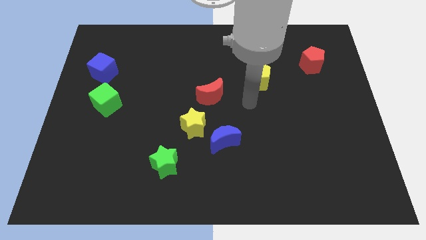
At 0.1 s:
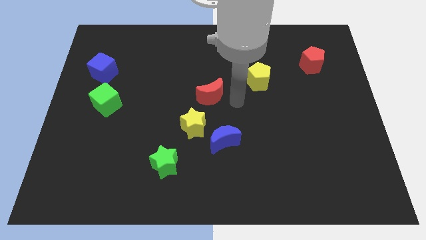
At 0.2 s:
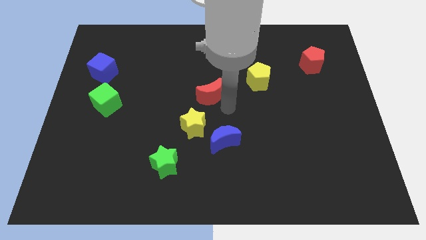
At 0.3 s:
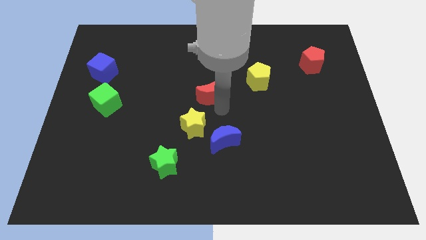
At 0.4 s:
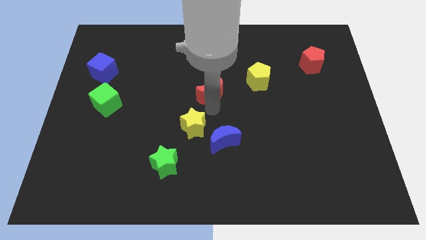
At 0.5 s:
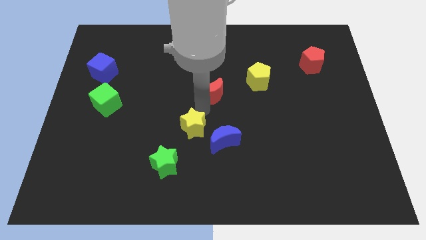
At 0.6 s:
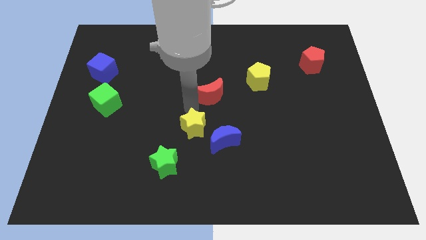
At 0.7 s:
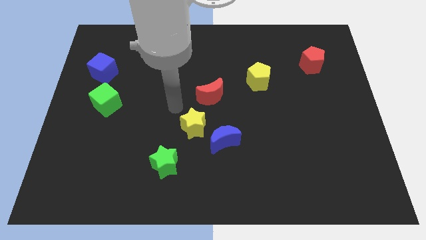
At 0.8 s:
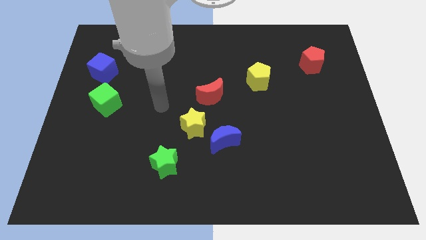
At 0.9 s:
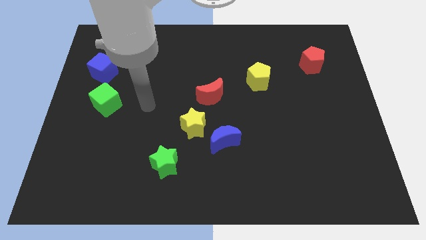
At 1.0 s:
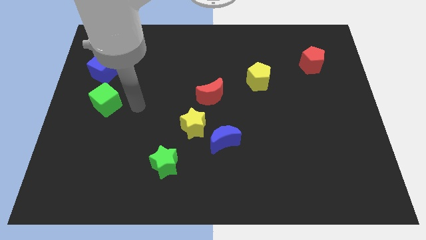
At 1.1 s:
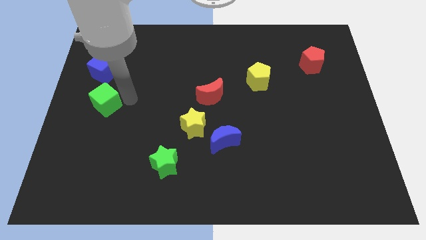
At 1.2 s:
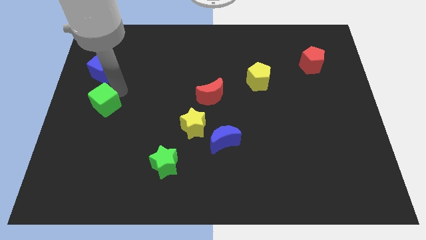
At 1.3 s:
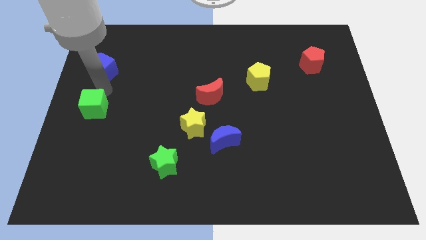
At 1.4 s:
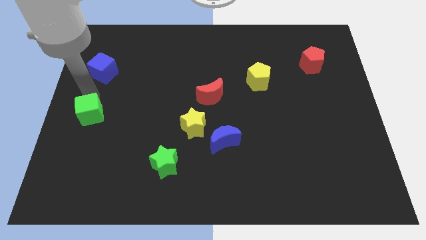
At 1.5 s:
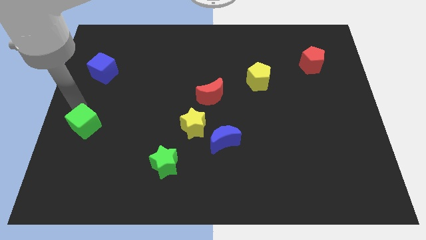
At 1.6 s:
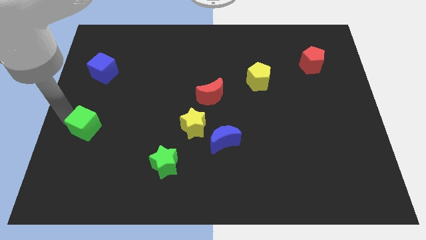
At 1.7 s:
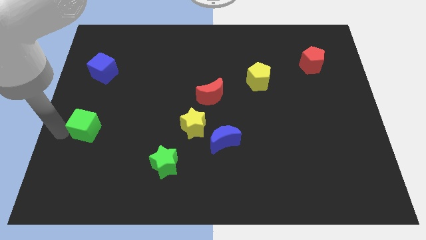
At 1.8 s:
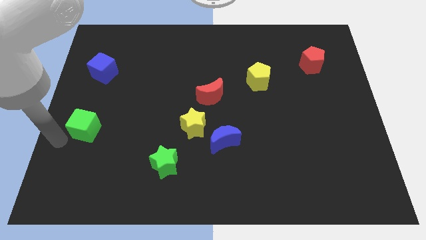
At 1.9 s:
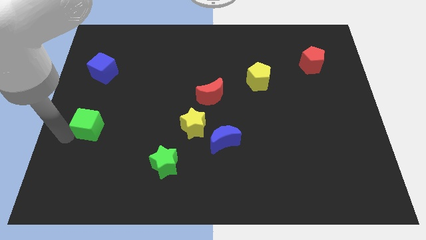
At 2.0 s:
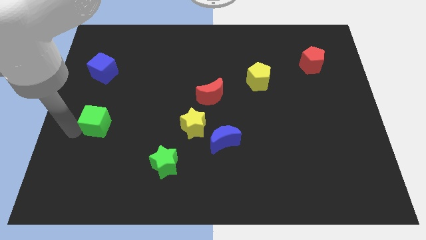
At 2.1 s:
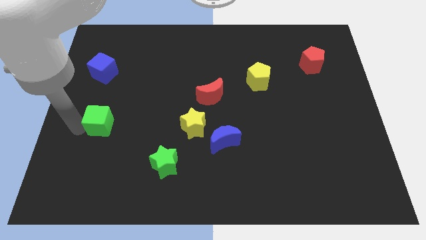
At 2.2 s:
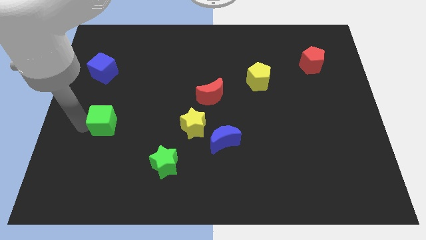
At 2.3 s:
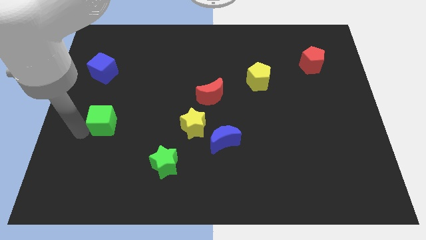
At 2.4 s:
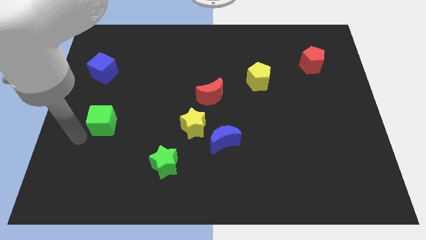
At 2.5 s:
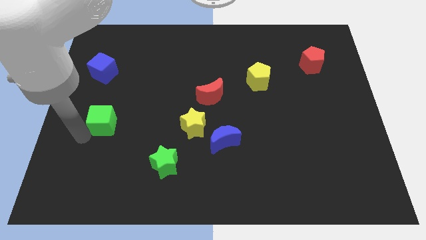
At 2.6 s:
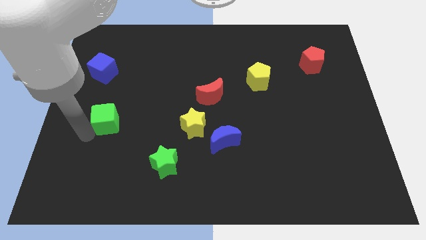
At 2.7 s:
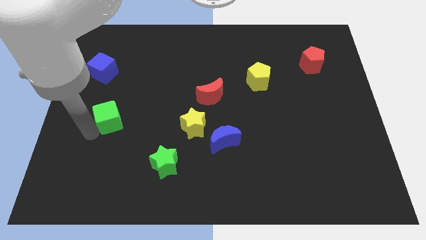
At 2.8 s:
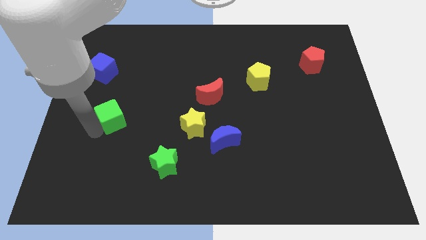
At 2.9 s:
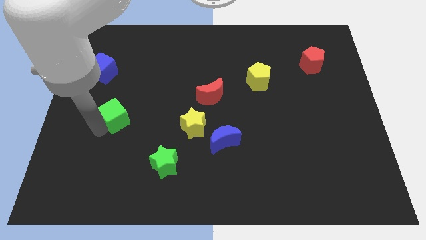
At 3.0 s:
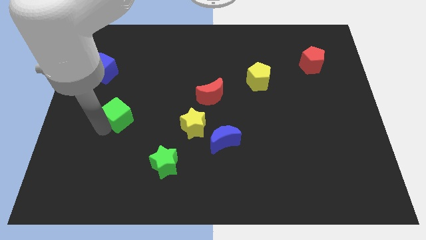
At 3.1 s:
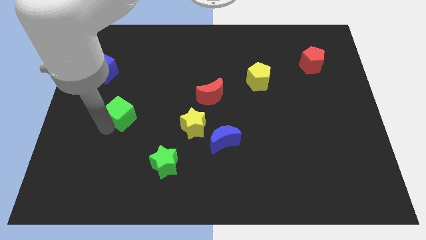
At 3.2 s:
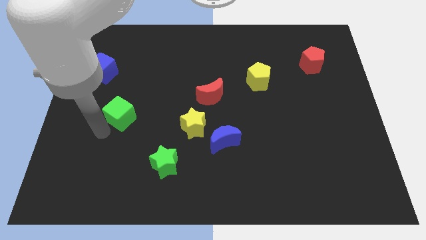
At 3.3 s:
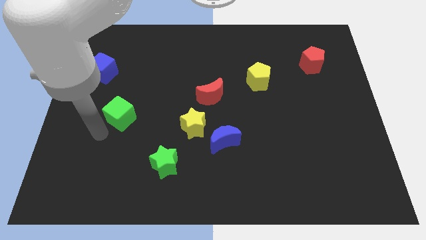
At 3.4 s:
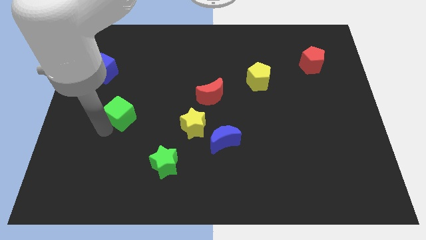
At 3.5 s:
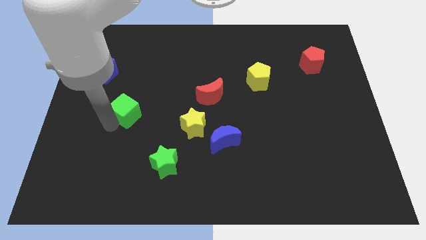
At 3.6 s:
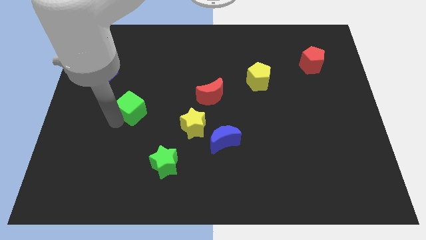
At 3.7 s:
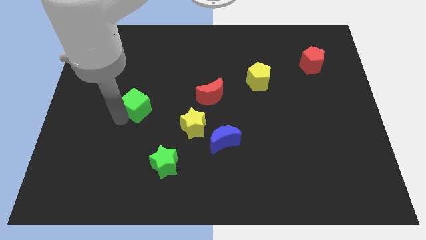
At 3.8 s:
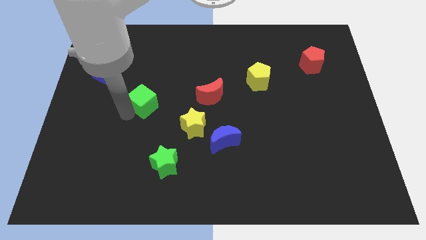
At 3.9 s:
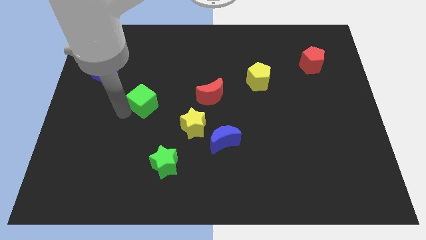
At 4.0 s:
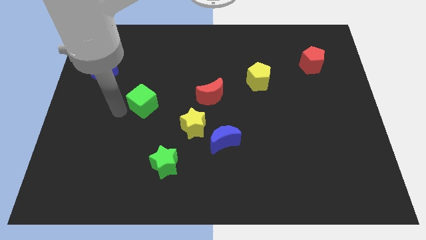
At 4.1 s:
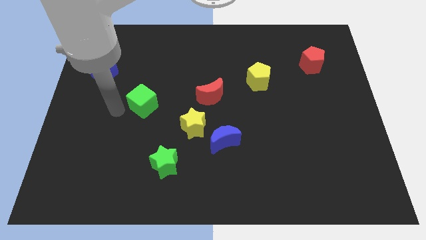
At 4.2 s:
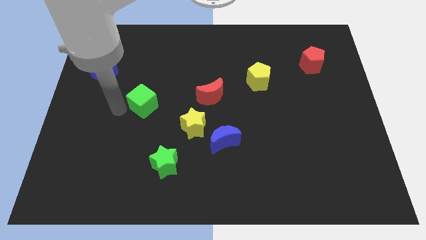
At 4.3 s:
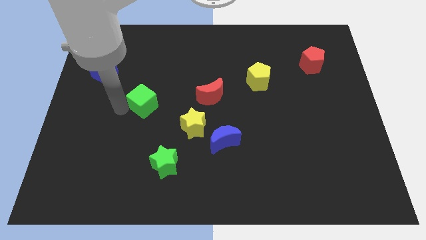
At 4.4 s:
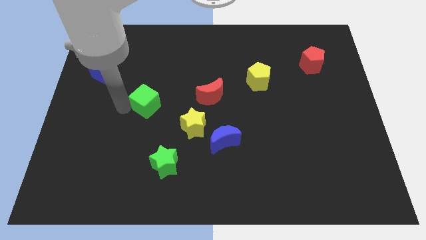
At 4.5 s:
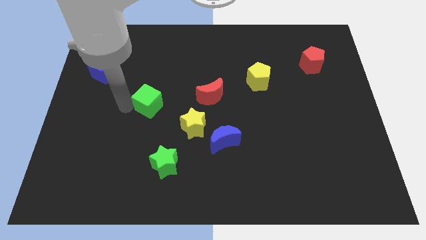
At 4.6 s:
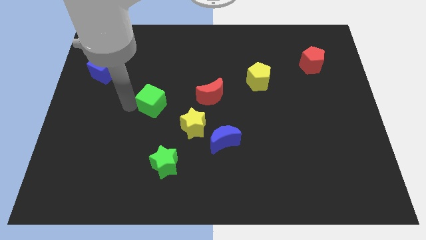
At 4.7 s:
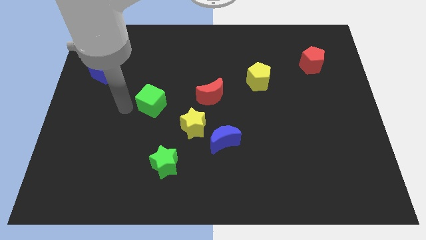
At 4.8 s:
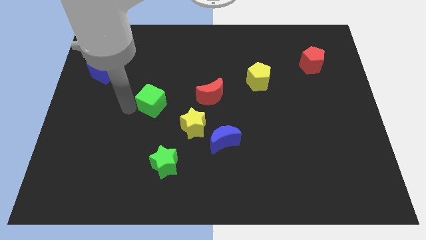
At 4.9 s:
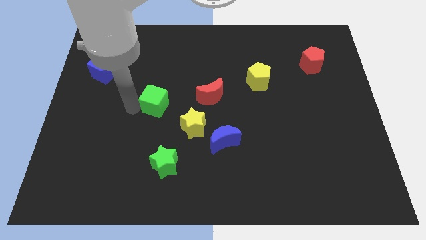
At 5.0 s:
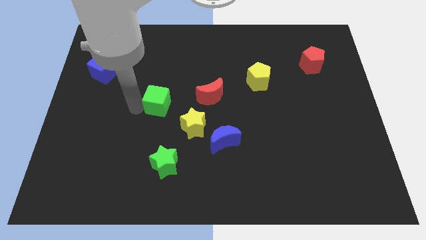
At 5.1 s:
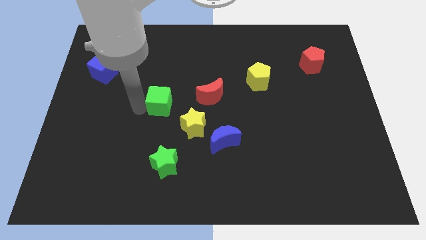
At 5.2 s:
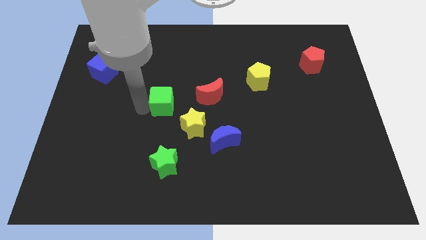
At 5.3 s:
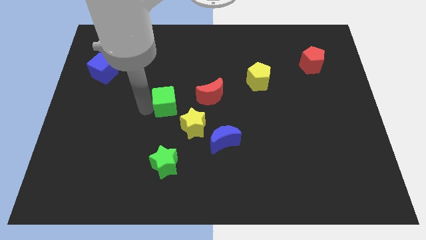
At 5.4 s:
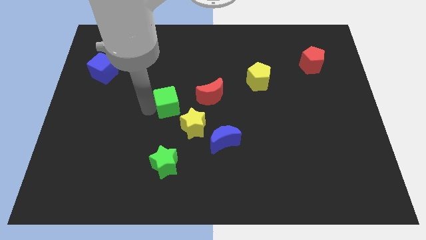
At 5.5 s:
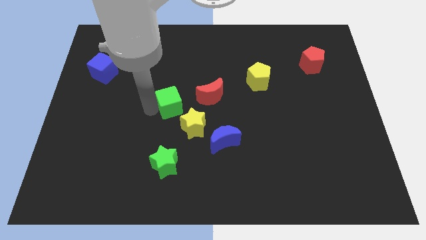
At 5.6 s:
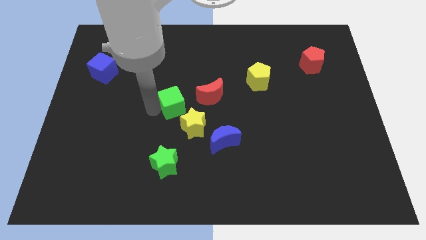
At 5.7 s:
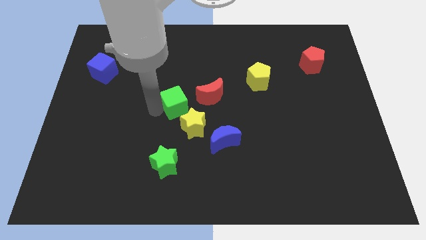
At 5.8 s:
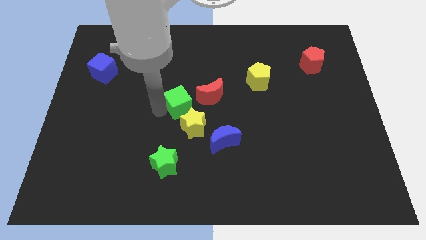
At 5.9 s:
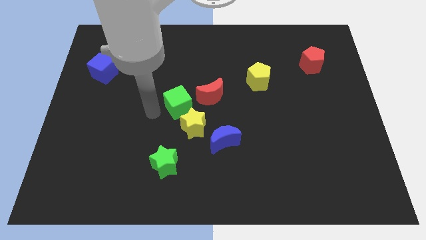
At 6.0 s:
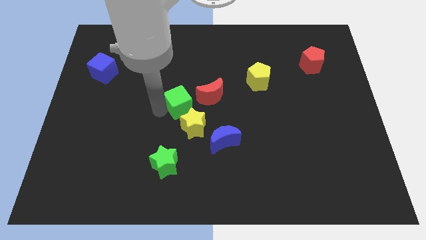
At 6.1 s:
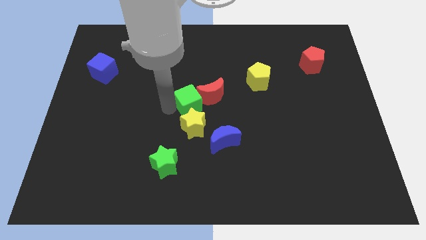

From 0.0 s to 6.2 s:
push the green cube to the red moon

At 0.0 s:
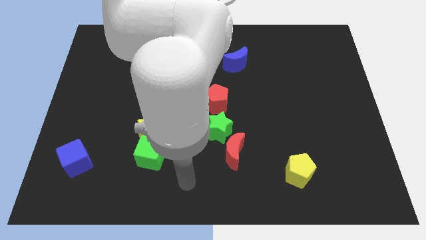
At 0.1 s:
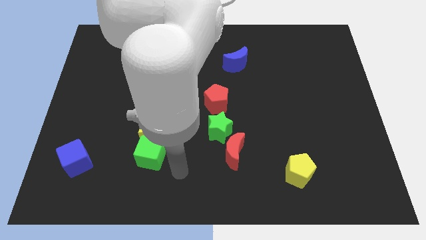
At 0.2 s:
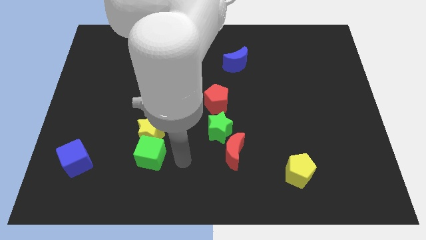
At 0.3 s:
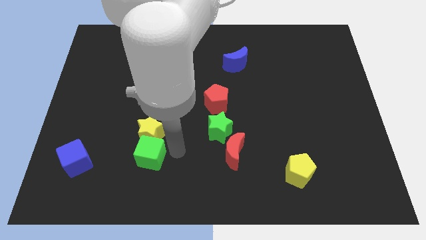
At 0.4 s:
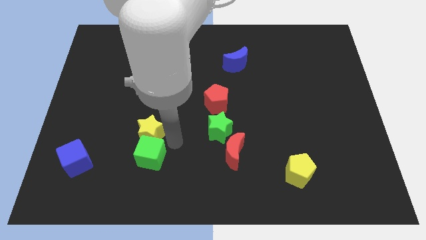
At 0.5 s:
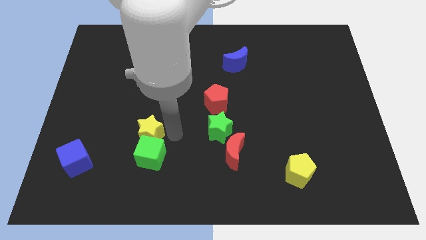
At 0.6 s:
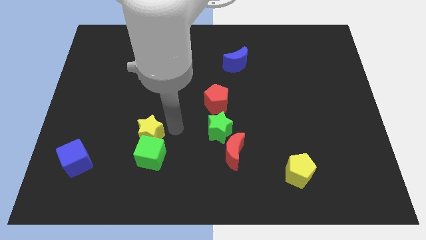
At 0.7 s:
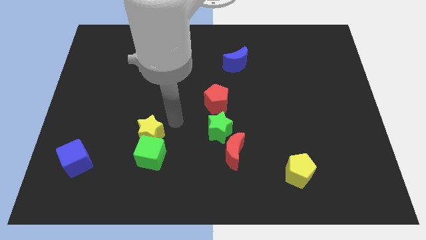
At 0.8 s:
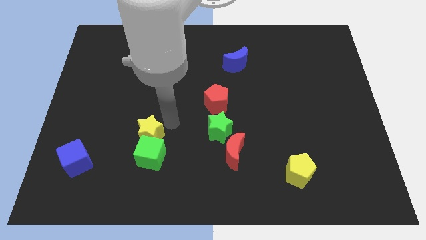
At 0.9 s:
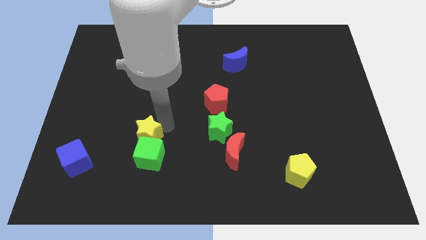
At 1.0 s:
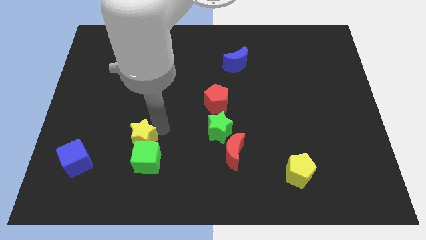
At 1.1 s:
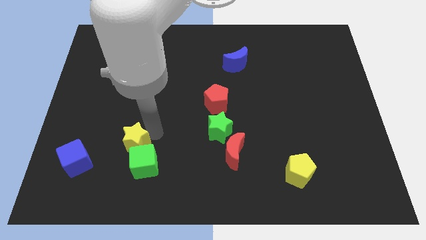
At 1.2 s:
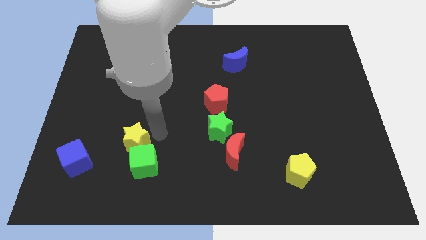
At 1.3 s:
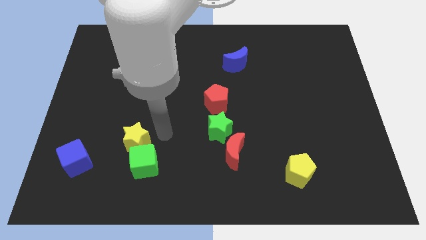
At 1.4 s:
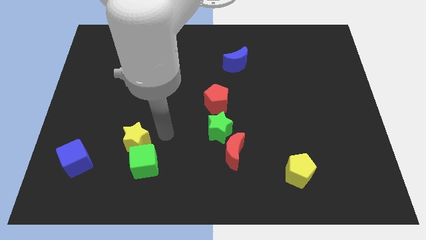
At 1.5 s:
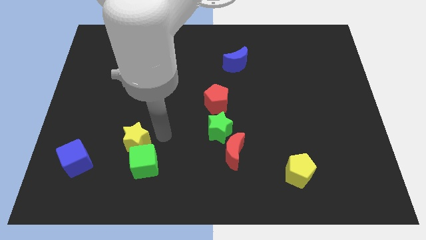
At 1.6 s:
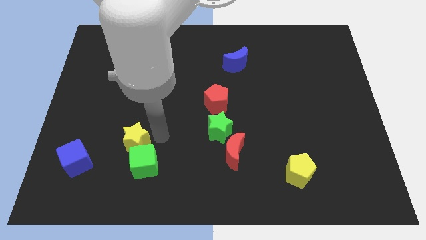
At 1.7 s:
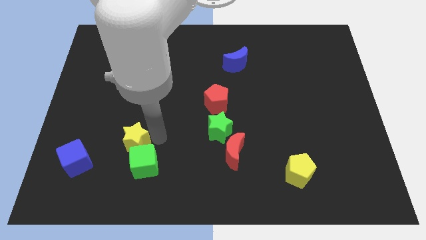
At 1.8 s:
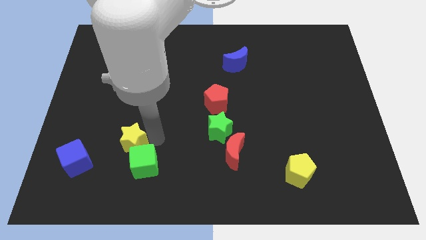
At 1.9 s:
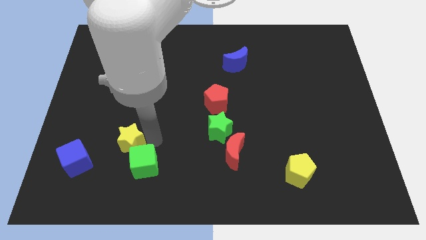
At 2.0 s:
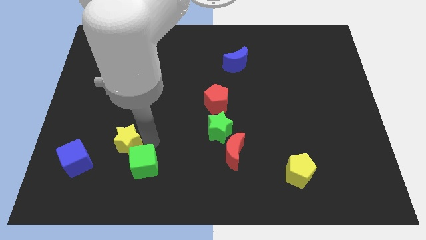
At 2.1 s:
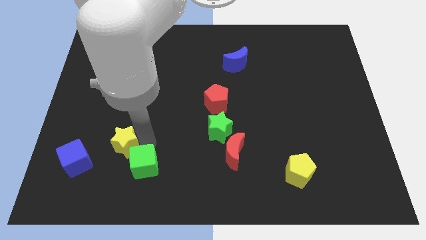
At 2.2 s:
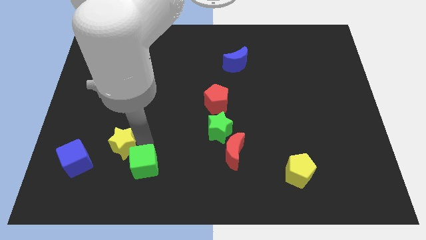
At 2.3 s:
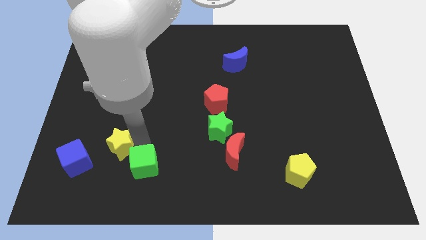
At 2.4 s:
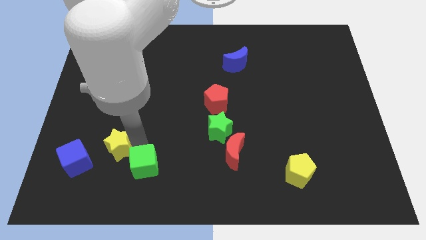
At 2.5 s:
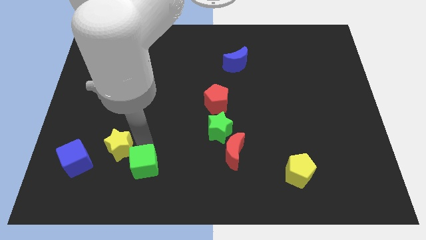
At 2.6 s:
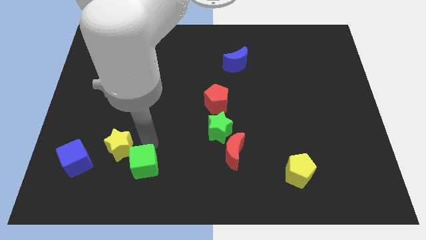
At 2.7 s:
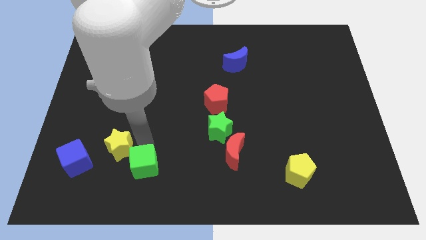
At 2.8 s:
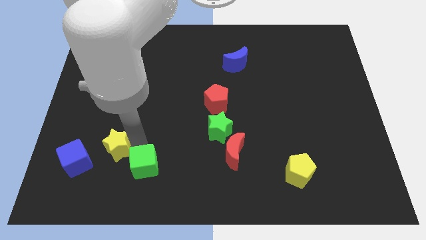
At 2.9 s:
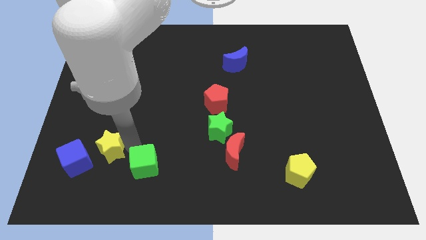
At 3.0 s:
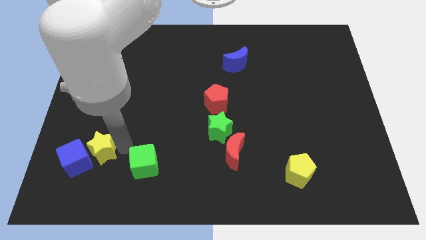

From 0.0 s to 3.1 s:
put the yellow star next to the blue cube
